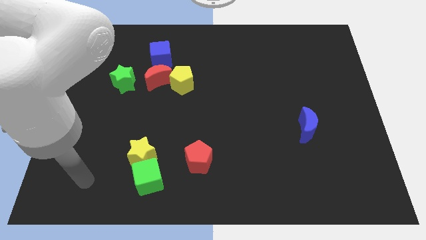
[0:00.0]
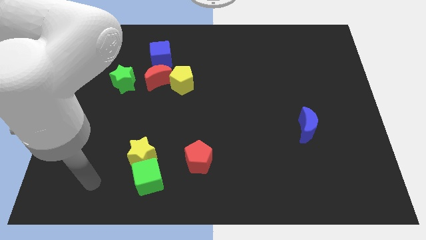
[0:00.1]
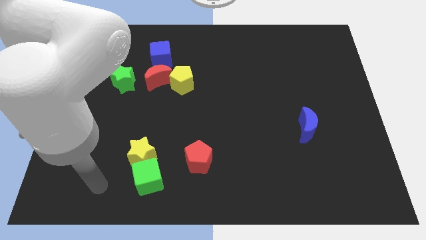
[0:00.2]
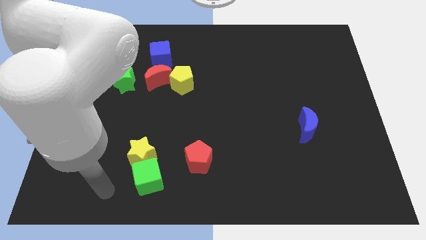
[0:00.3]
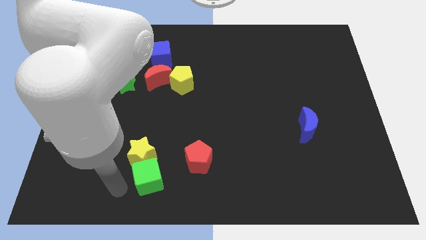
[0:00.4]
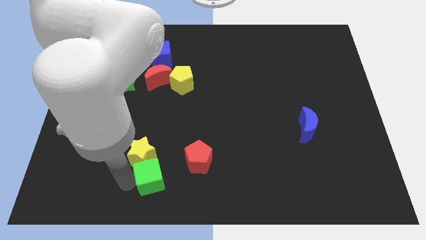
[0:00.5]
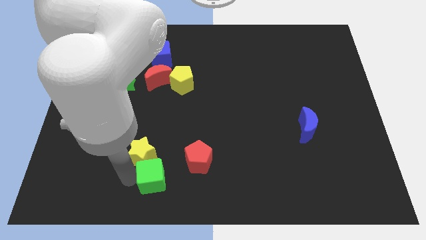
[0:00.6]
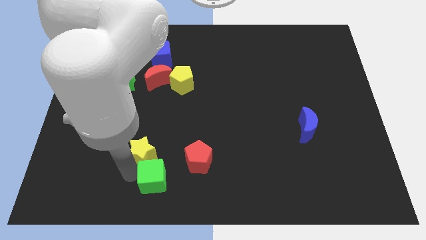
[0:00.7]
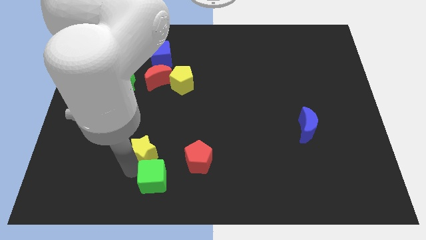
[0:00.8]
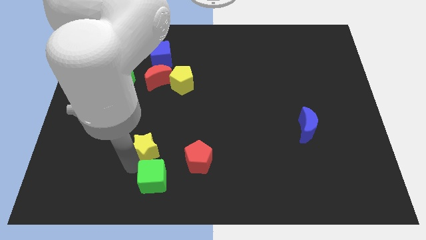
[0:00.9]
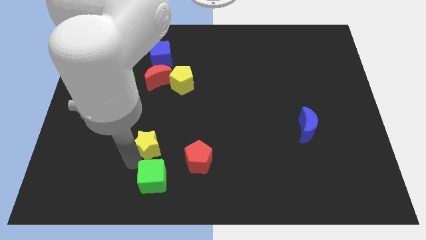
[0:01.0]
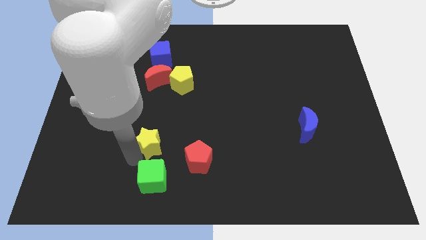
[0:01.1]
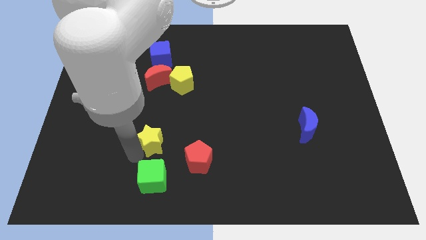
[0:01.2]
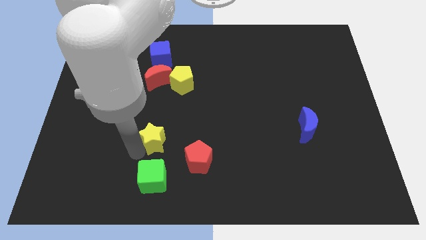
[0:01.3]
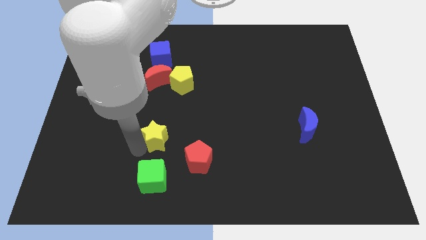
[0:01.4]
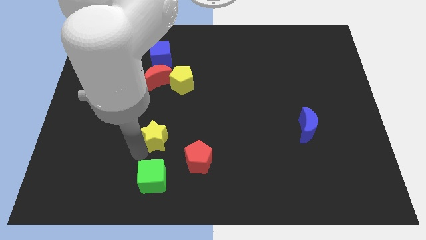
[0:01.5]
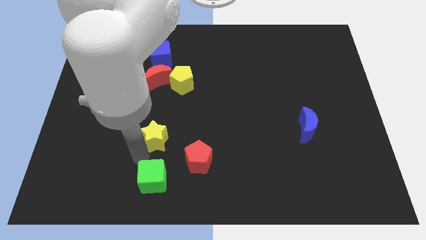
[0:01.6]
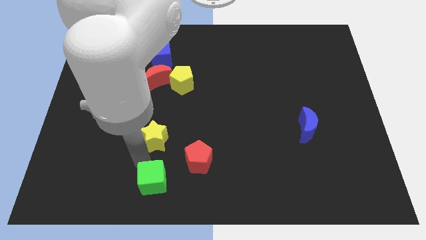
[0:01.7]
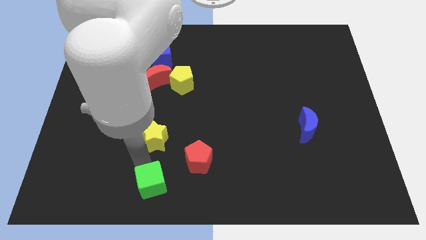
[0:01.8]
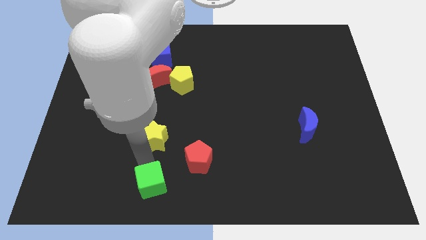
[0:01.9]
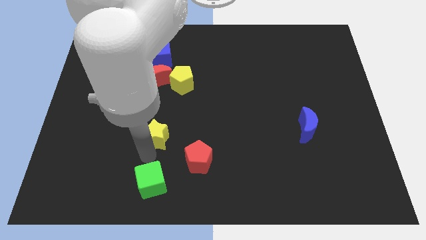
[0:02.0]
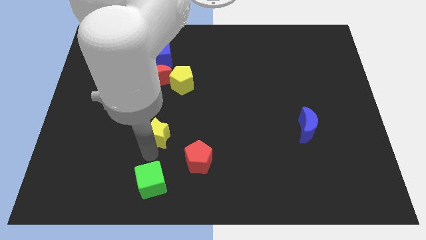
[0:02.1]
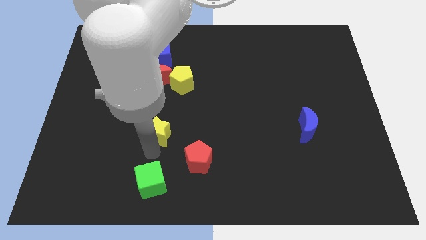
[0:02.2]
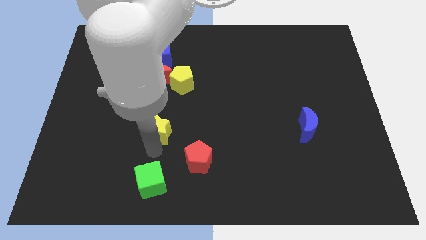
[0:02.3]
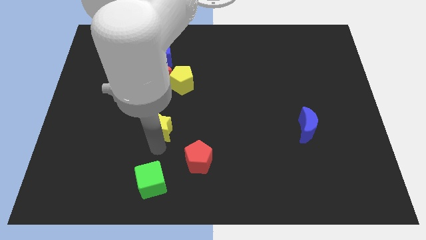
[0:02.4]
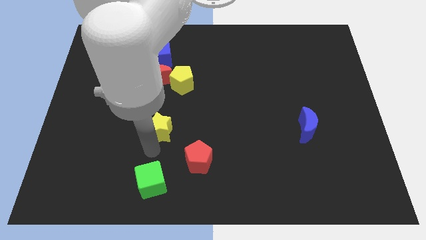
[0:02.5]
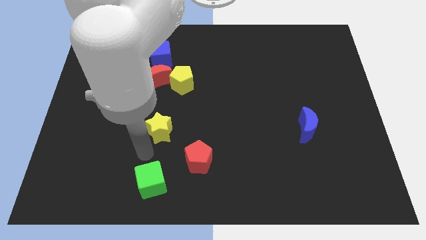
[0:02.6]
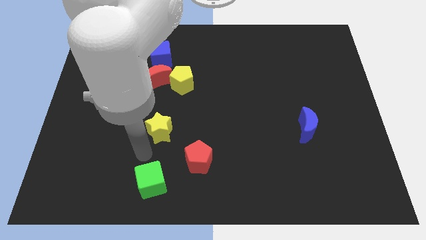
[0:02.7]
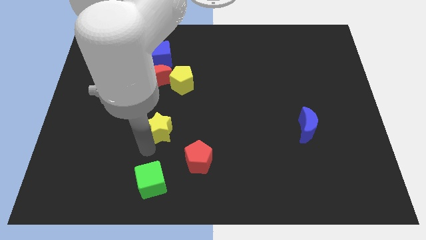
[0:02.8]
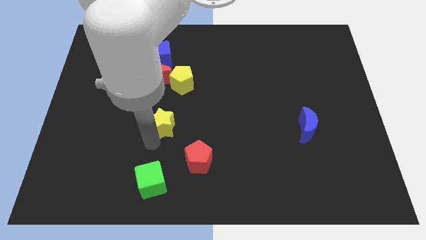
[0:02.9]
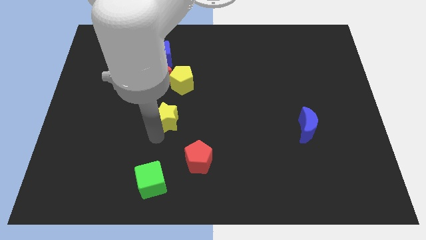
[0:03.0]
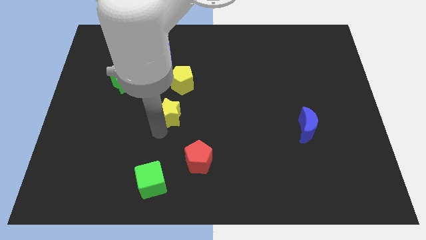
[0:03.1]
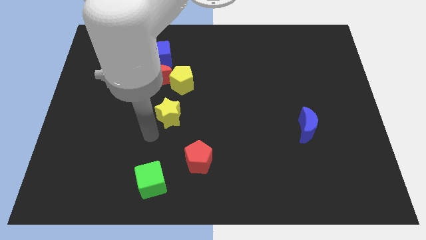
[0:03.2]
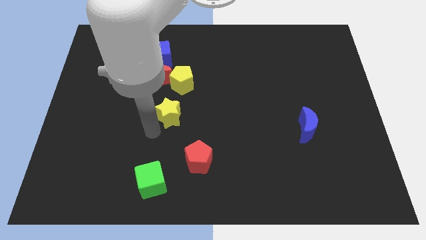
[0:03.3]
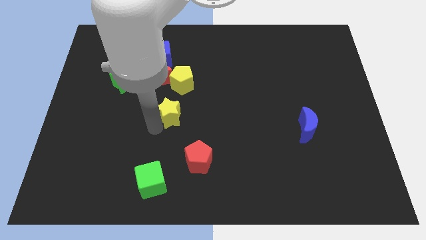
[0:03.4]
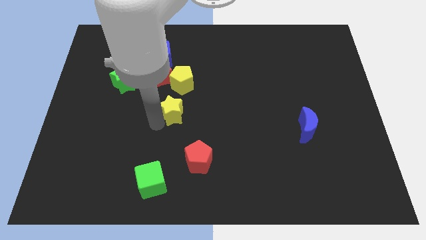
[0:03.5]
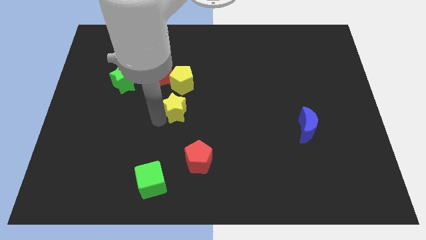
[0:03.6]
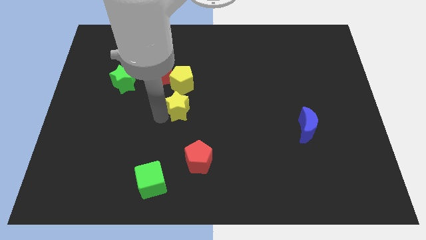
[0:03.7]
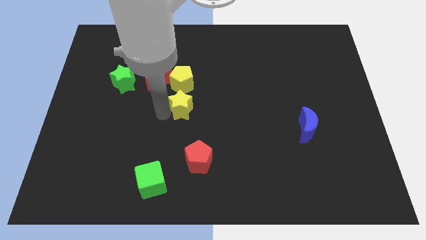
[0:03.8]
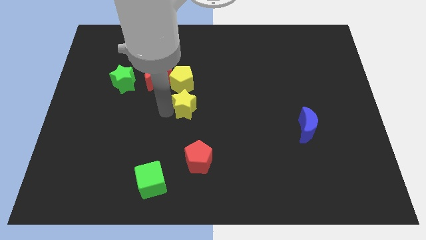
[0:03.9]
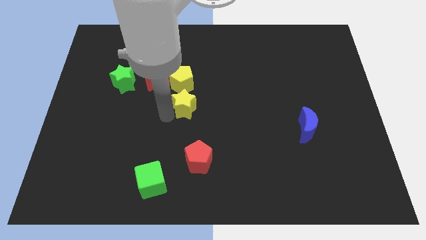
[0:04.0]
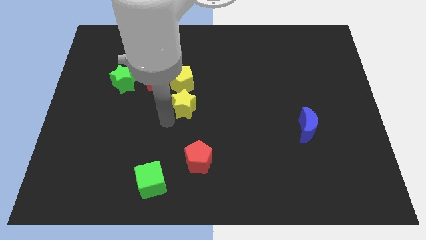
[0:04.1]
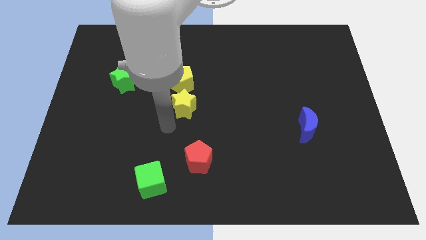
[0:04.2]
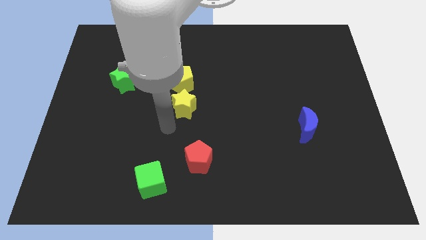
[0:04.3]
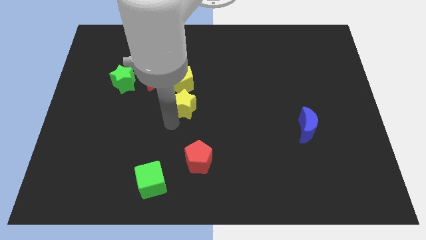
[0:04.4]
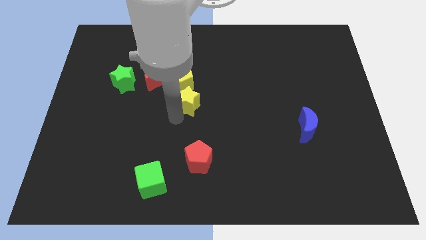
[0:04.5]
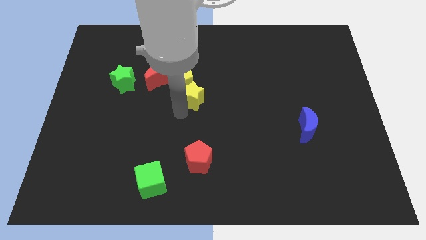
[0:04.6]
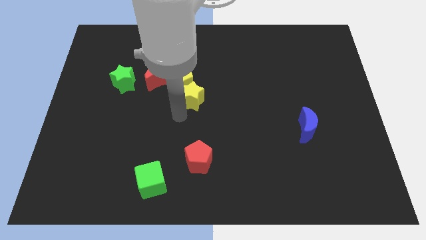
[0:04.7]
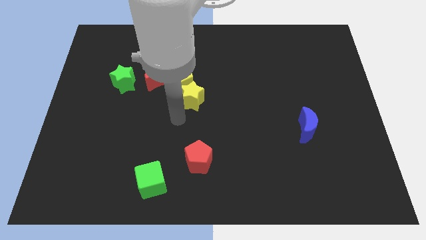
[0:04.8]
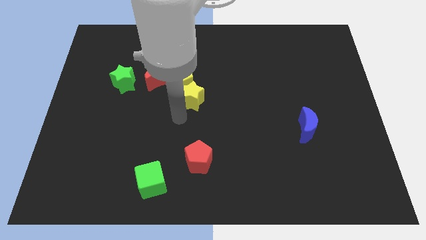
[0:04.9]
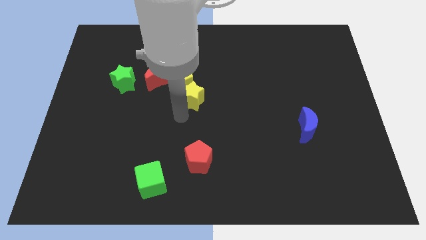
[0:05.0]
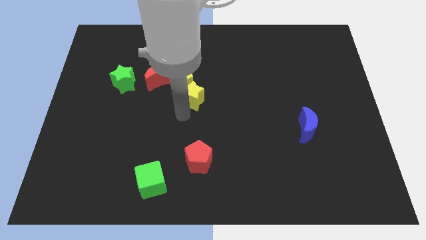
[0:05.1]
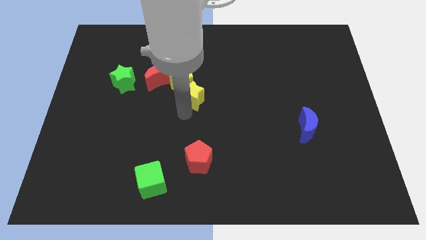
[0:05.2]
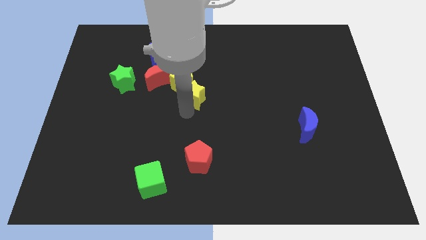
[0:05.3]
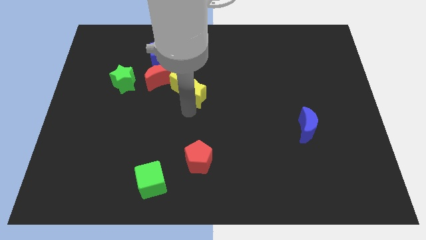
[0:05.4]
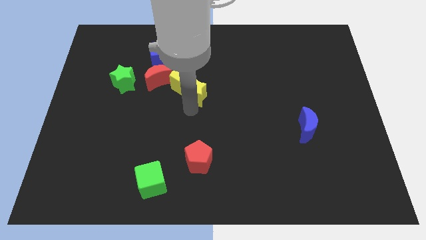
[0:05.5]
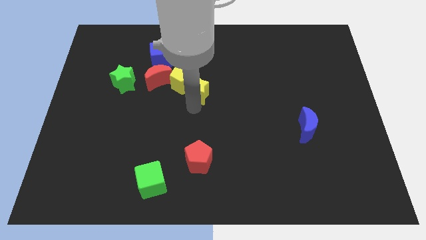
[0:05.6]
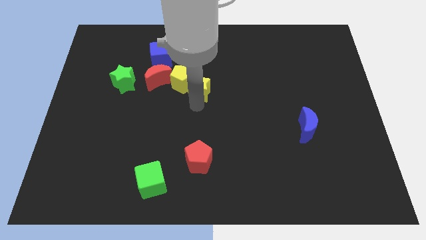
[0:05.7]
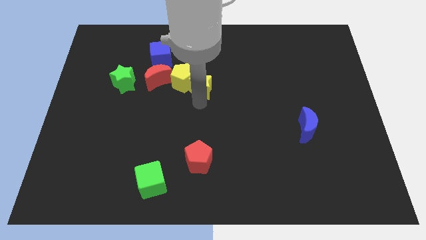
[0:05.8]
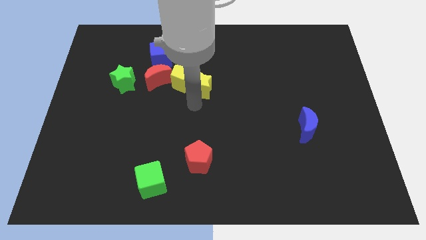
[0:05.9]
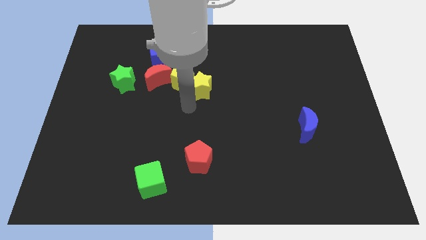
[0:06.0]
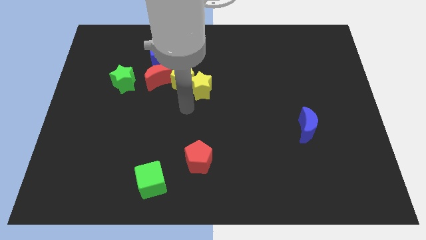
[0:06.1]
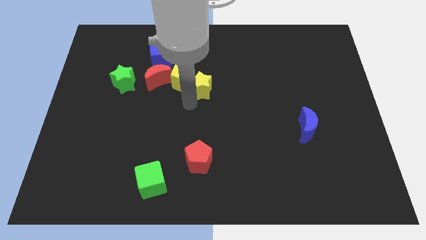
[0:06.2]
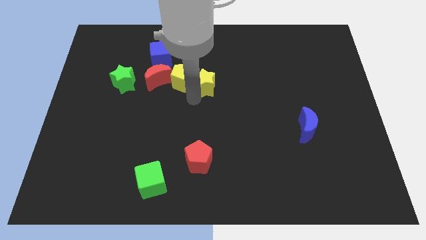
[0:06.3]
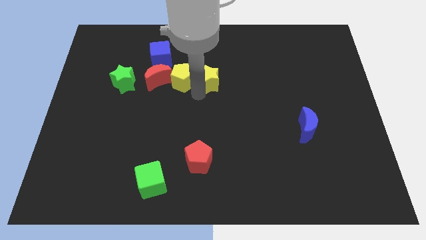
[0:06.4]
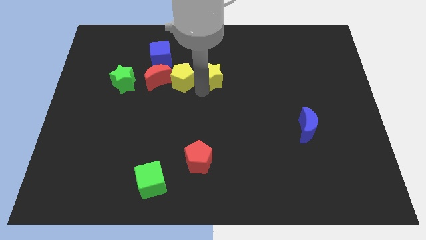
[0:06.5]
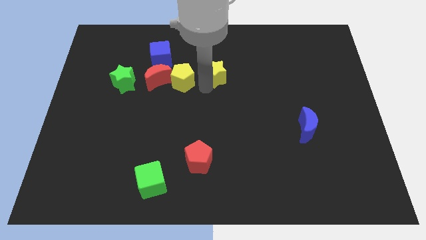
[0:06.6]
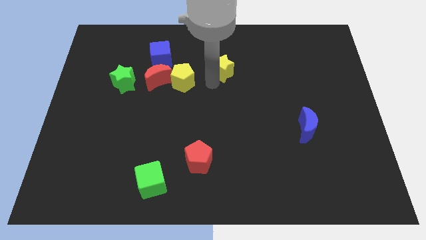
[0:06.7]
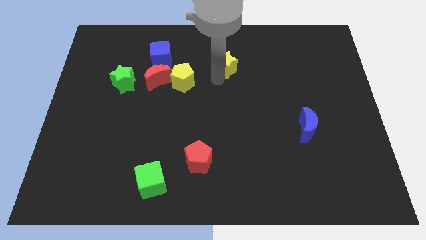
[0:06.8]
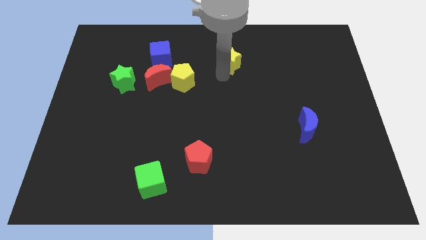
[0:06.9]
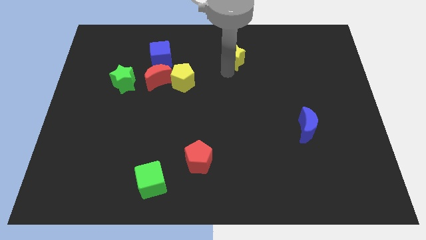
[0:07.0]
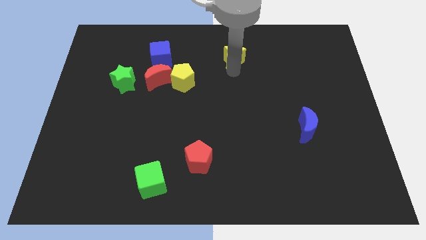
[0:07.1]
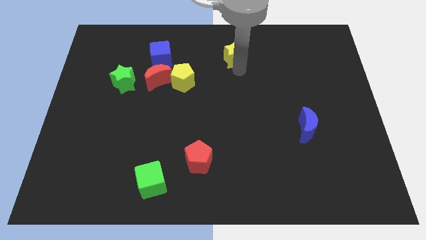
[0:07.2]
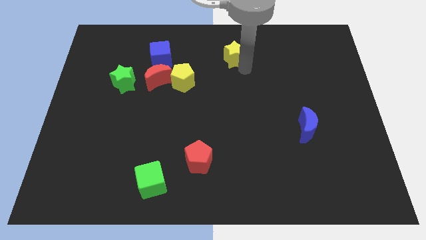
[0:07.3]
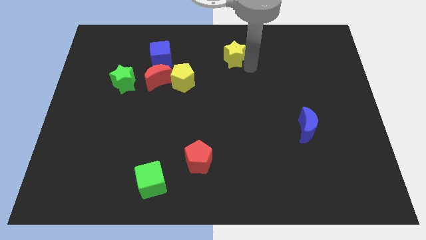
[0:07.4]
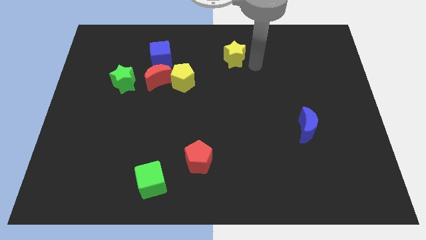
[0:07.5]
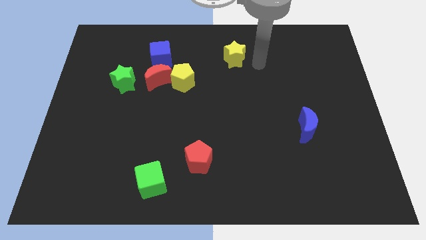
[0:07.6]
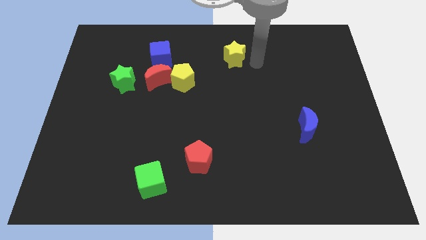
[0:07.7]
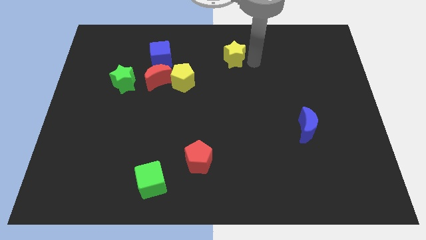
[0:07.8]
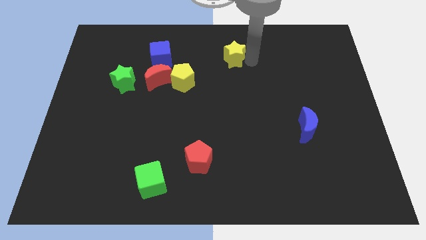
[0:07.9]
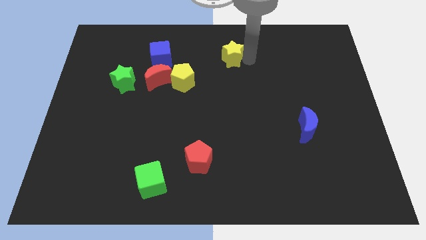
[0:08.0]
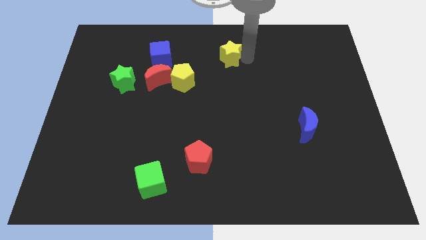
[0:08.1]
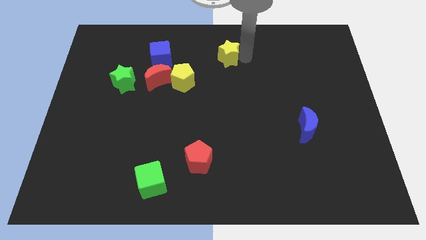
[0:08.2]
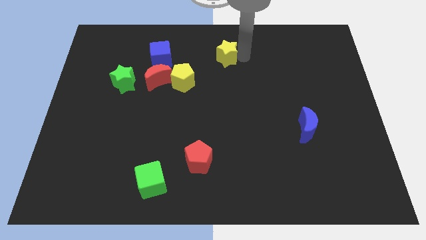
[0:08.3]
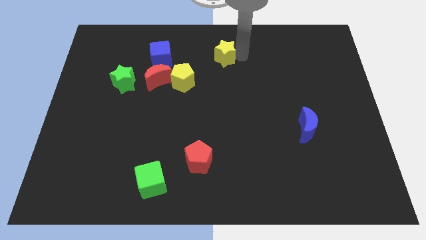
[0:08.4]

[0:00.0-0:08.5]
slide the yellow star to the top side
